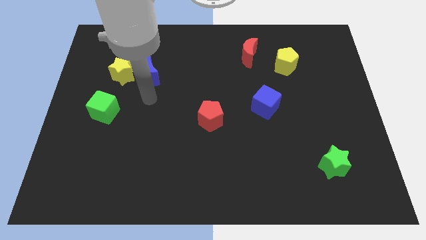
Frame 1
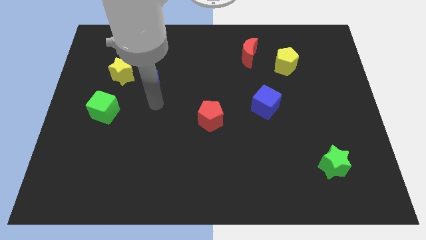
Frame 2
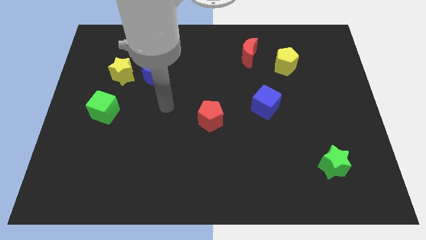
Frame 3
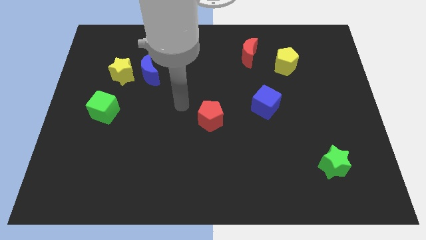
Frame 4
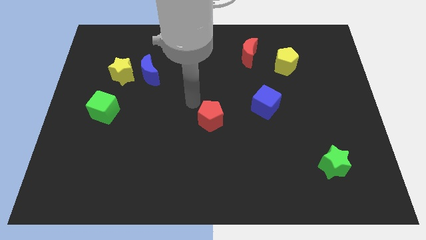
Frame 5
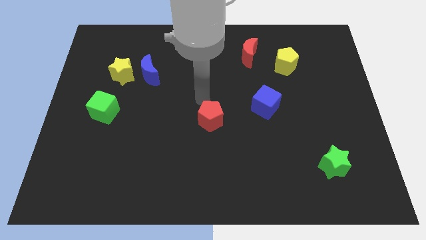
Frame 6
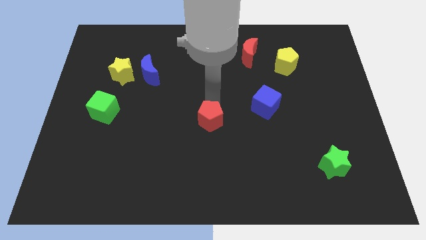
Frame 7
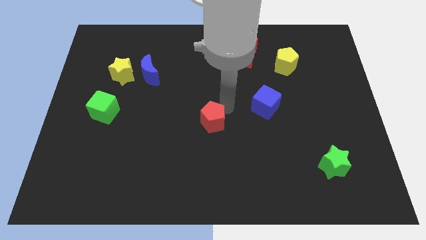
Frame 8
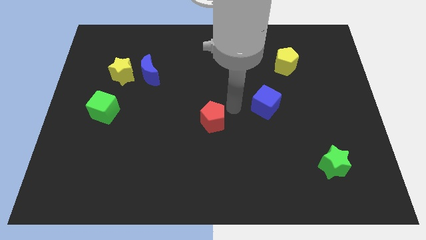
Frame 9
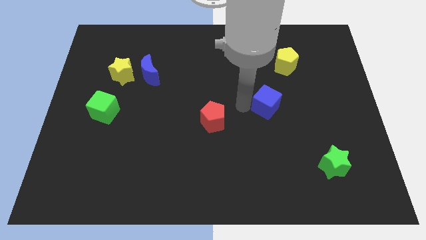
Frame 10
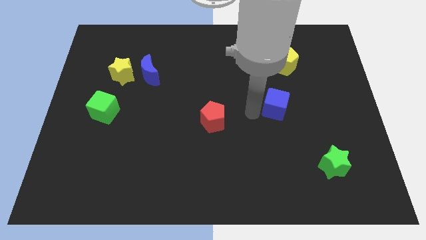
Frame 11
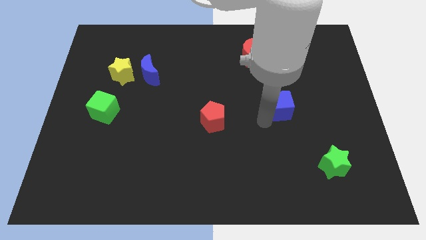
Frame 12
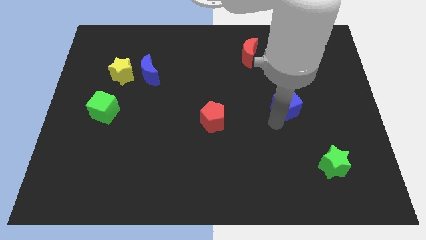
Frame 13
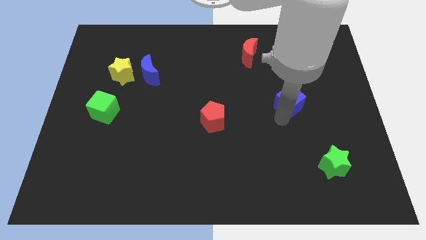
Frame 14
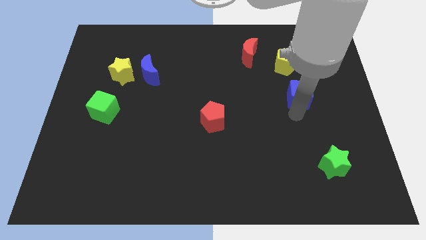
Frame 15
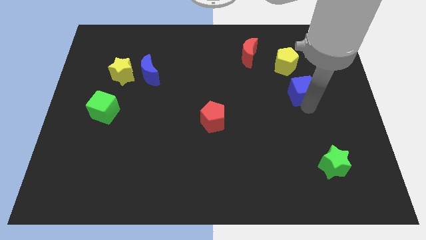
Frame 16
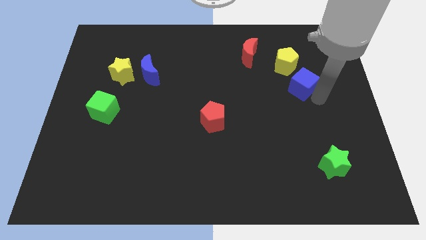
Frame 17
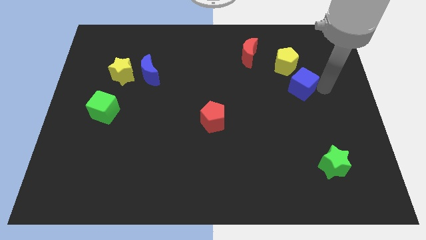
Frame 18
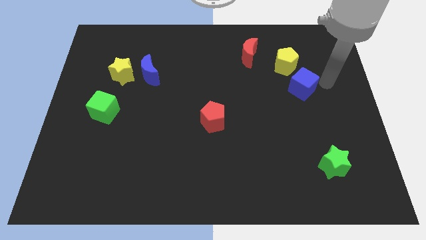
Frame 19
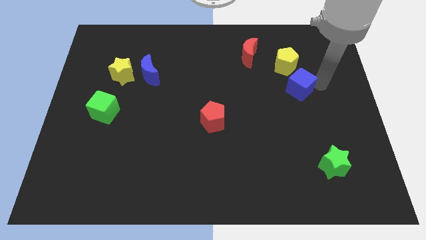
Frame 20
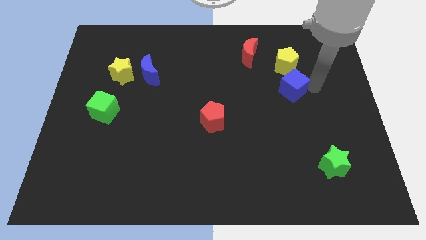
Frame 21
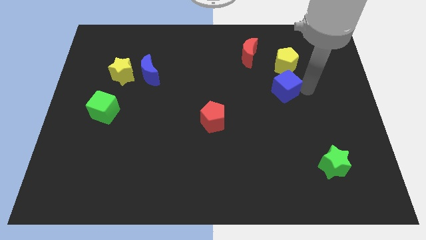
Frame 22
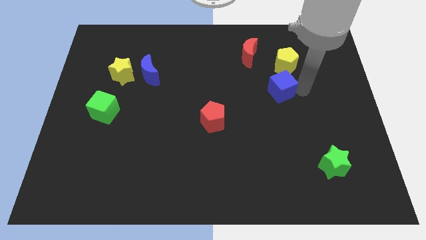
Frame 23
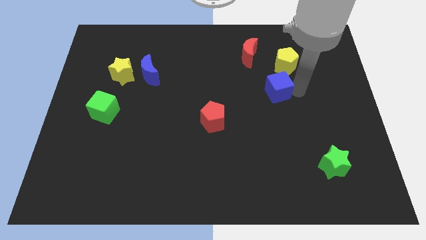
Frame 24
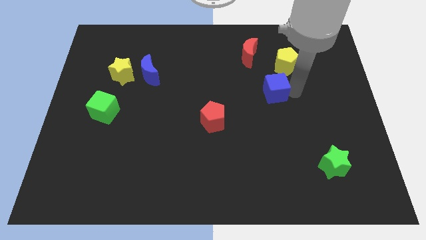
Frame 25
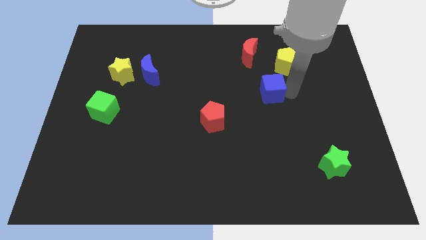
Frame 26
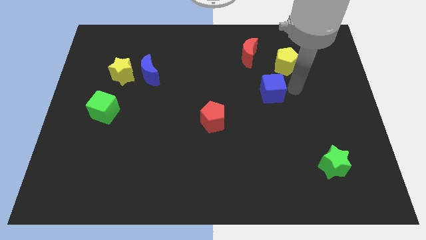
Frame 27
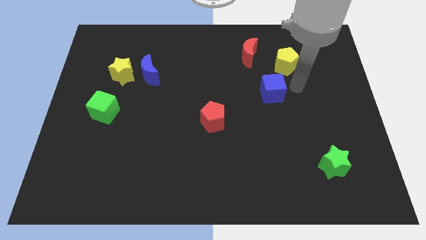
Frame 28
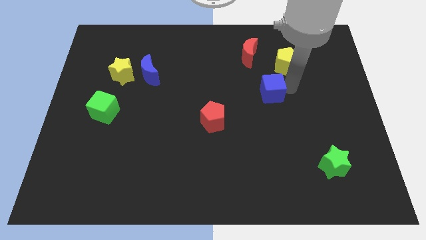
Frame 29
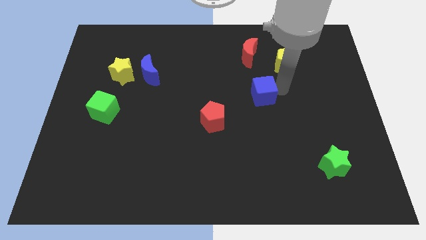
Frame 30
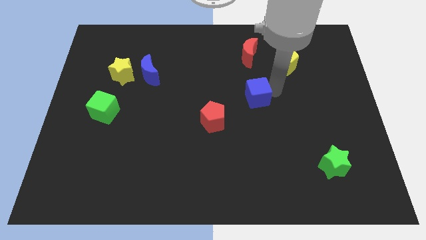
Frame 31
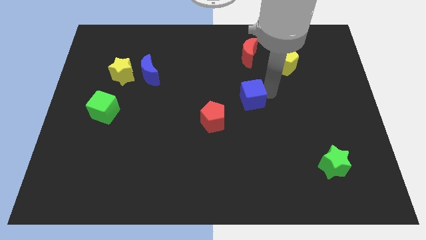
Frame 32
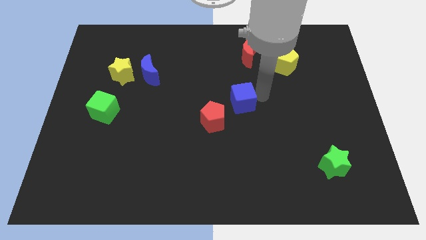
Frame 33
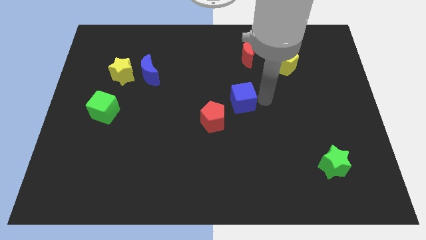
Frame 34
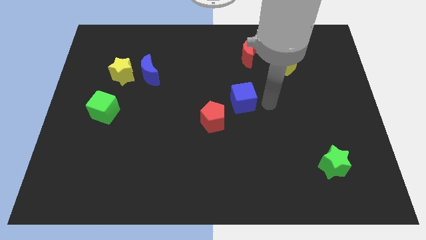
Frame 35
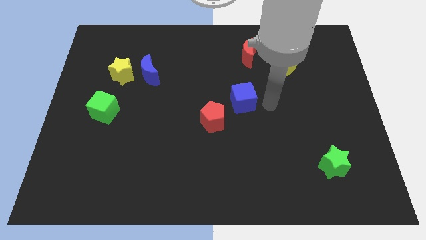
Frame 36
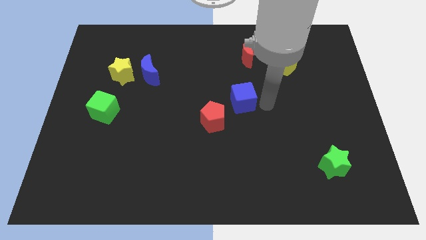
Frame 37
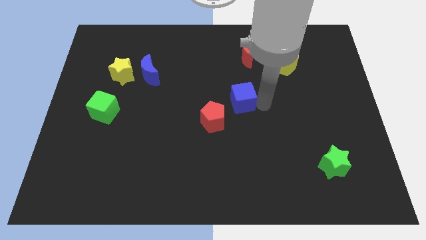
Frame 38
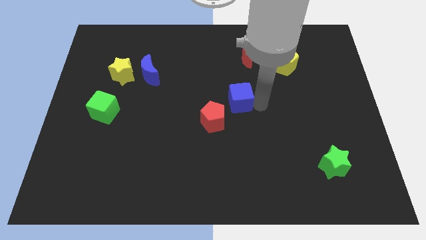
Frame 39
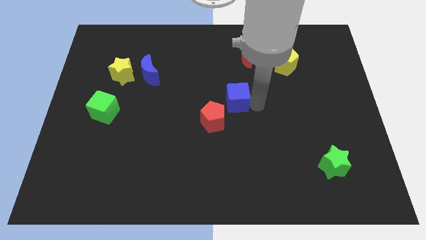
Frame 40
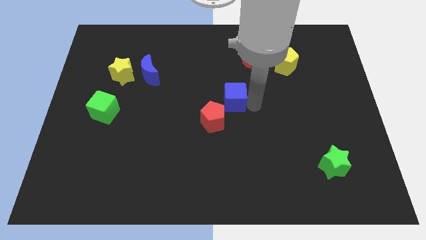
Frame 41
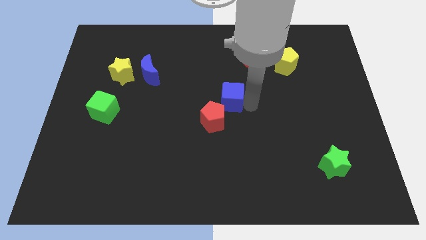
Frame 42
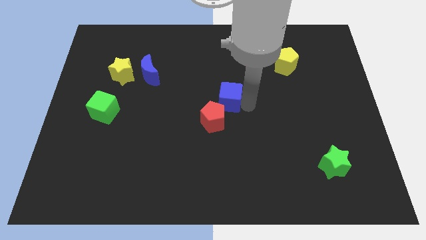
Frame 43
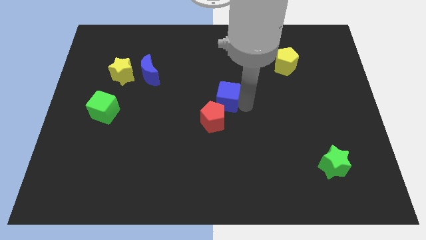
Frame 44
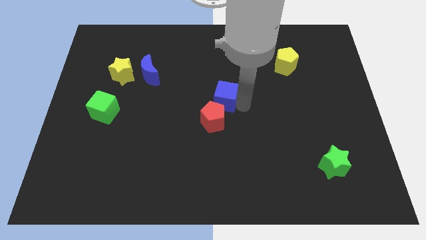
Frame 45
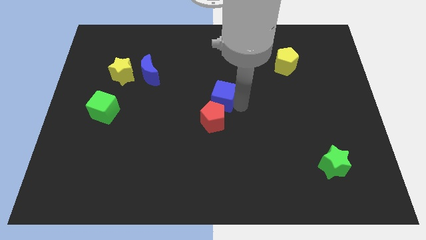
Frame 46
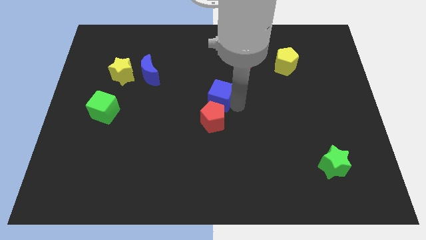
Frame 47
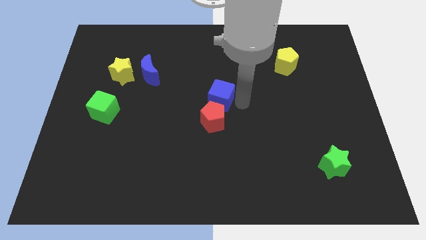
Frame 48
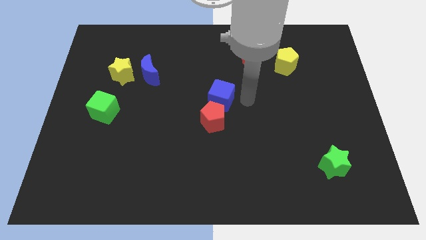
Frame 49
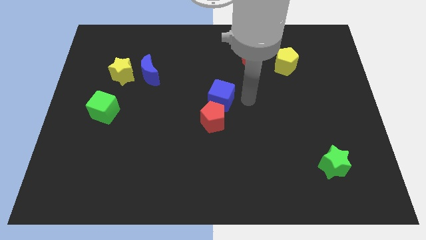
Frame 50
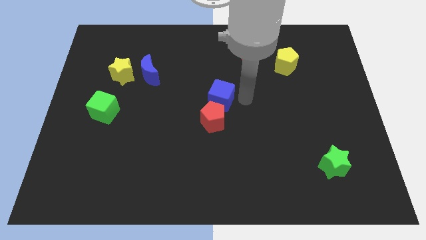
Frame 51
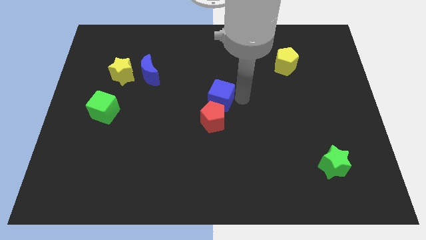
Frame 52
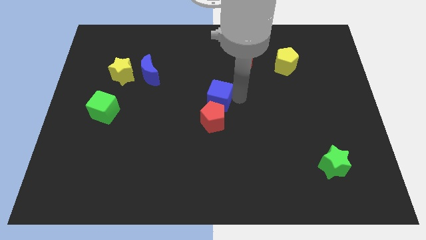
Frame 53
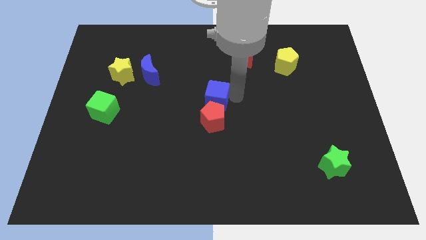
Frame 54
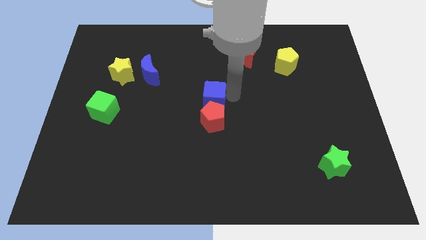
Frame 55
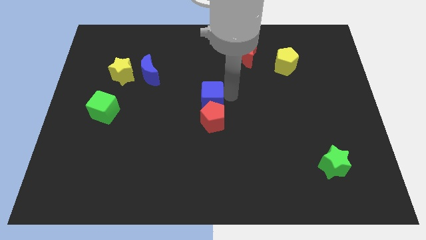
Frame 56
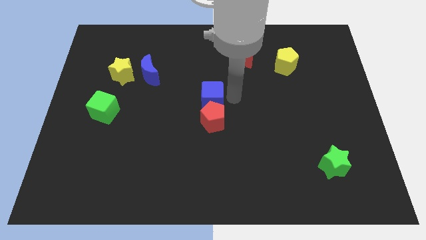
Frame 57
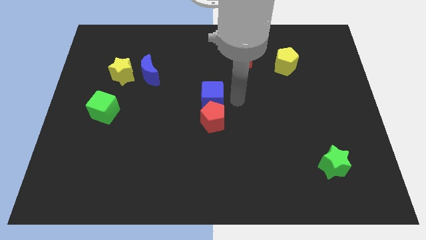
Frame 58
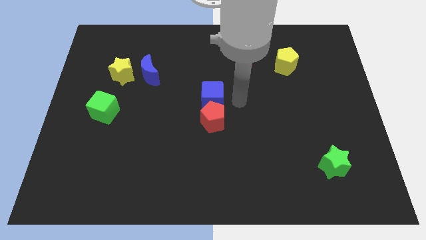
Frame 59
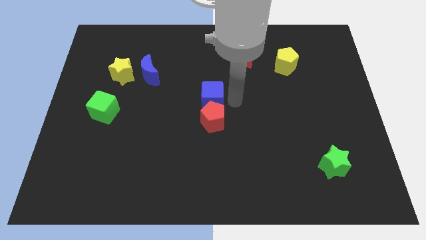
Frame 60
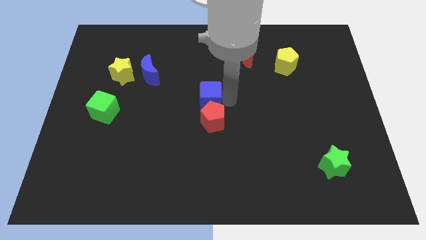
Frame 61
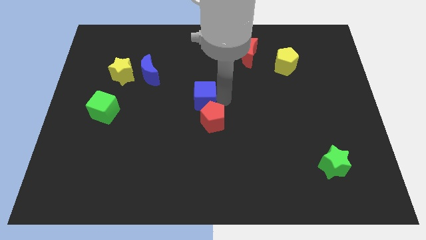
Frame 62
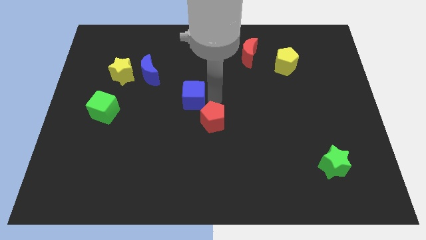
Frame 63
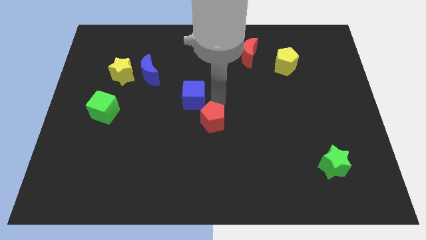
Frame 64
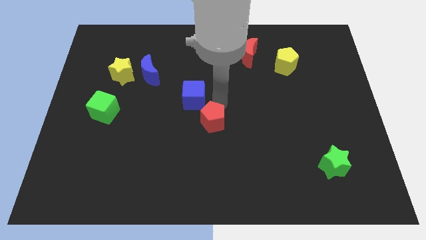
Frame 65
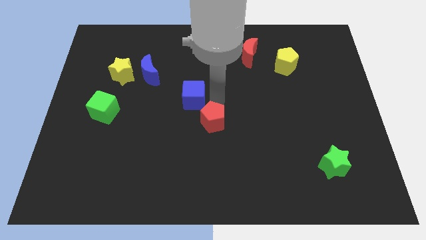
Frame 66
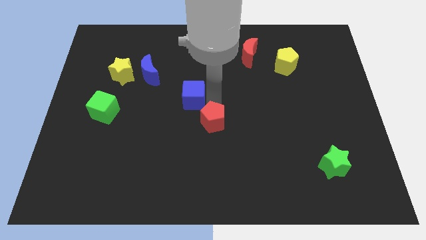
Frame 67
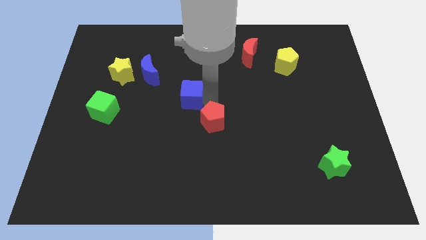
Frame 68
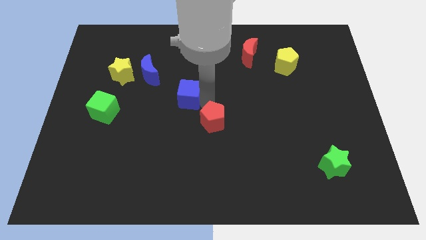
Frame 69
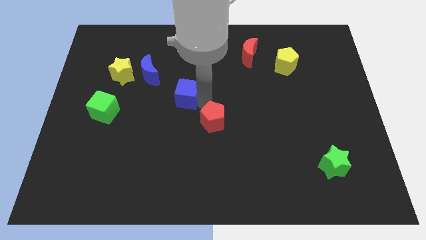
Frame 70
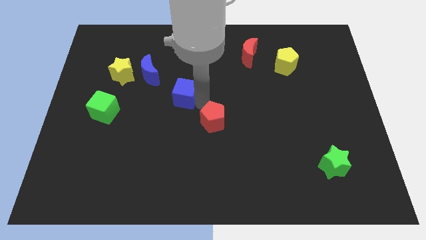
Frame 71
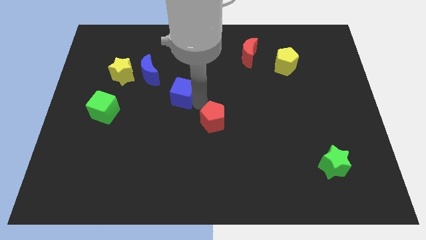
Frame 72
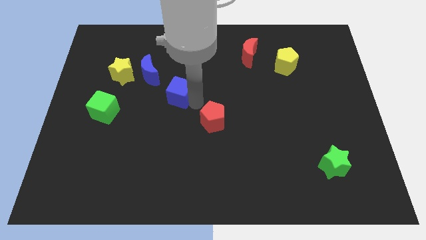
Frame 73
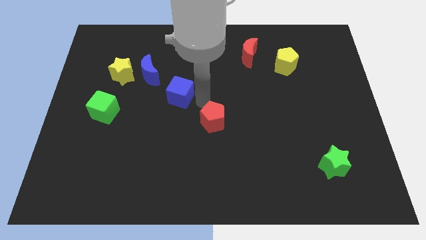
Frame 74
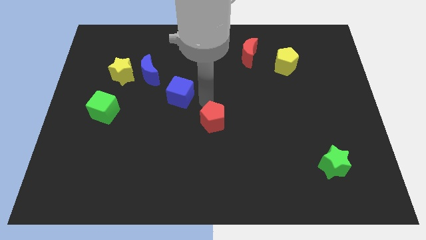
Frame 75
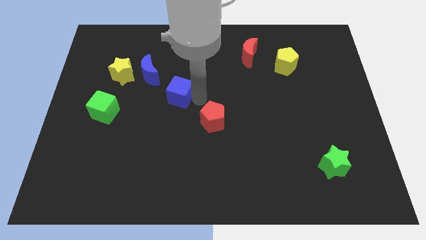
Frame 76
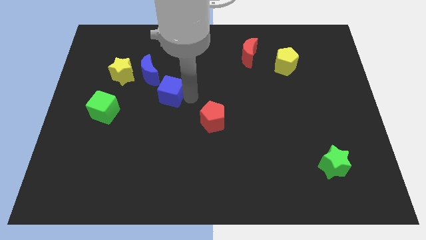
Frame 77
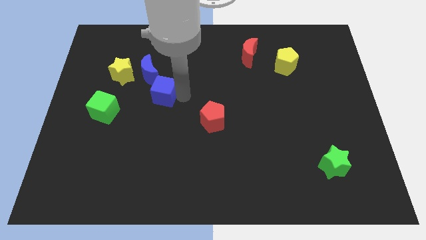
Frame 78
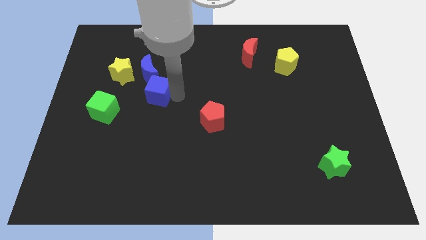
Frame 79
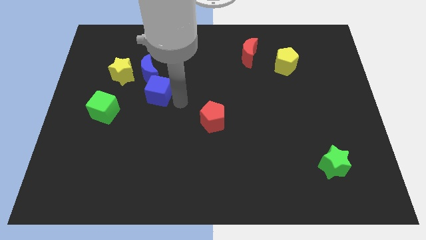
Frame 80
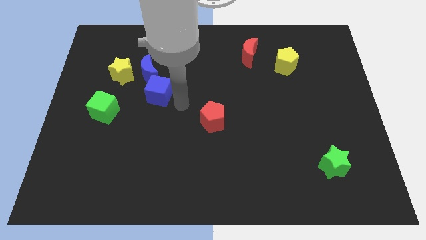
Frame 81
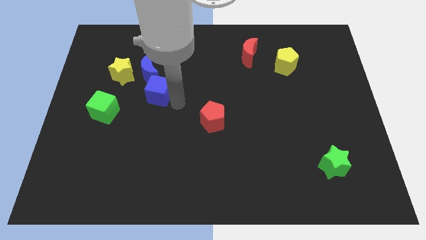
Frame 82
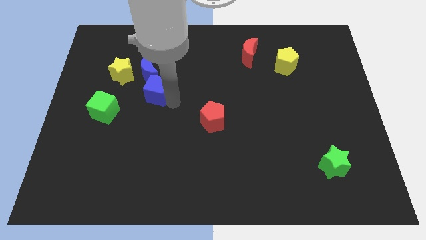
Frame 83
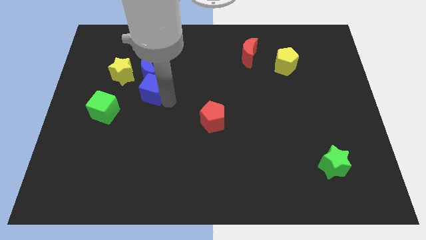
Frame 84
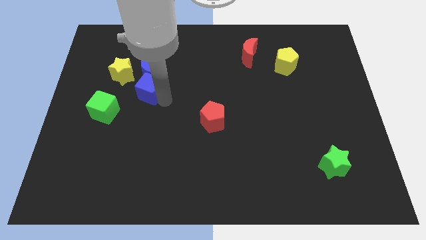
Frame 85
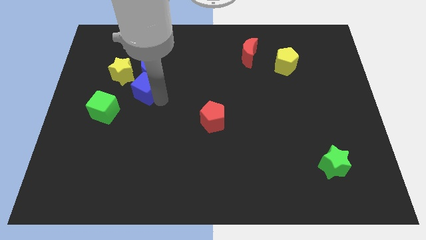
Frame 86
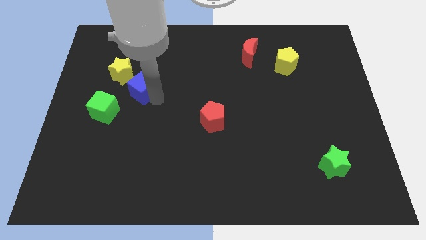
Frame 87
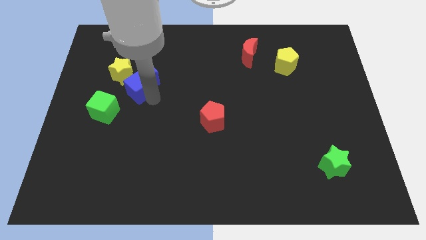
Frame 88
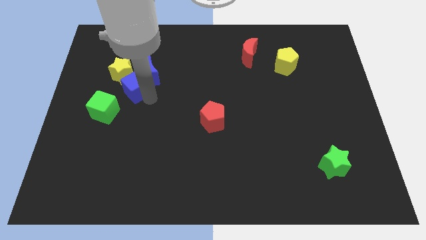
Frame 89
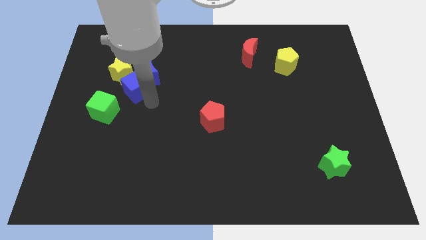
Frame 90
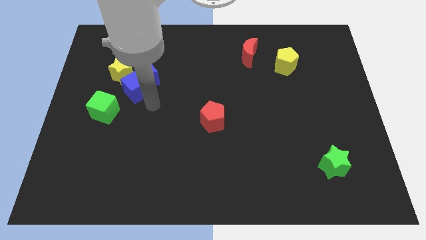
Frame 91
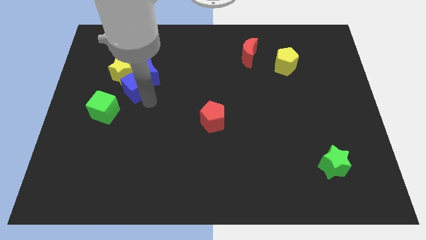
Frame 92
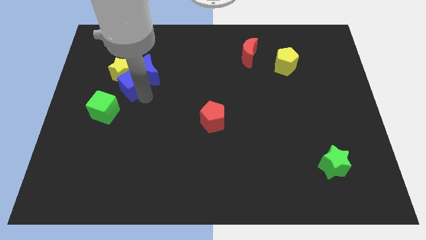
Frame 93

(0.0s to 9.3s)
put the blue cube to the yellow star
